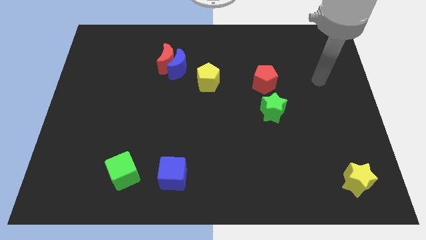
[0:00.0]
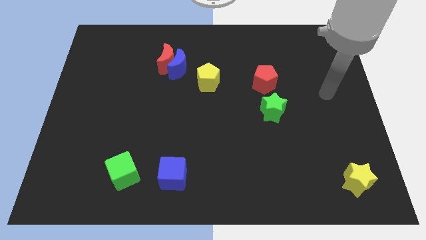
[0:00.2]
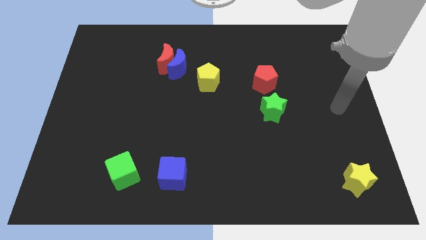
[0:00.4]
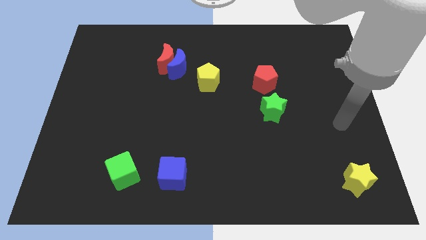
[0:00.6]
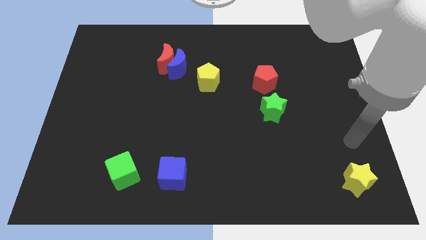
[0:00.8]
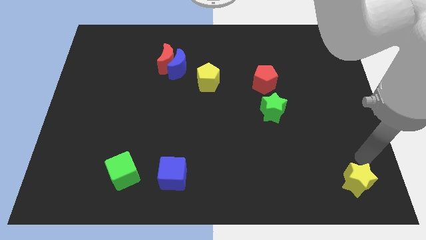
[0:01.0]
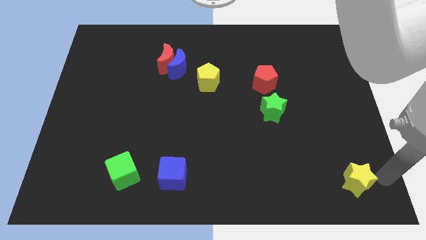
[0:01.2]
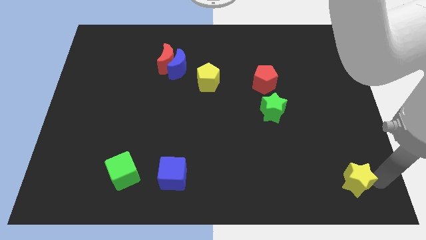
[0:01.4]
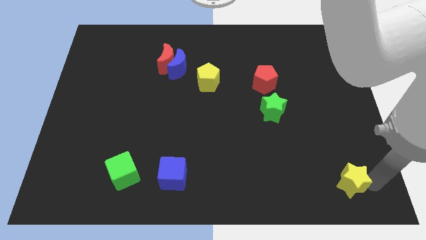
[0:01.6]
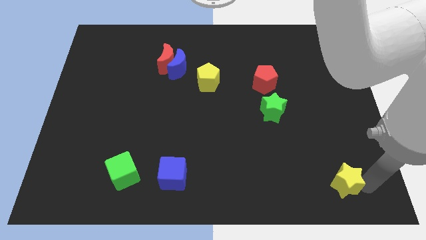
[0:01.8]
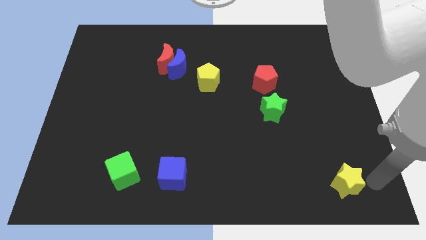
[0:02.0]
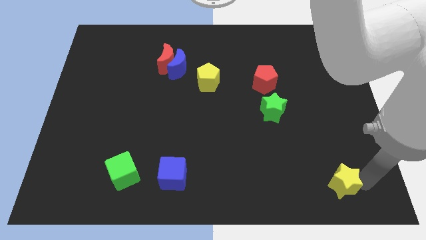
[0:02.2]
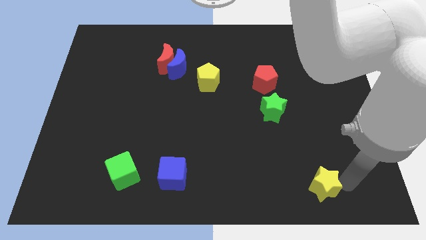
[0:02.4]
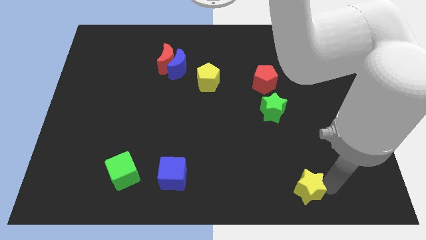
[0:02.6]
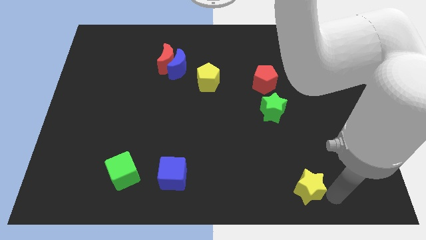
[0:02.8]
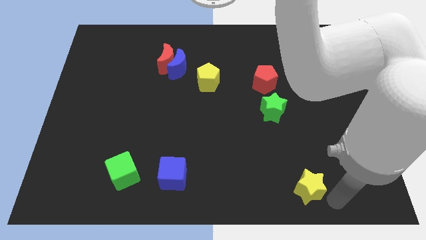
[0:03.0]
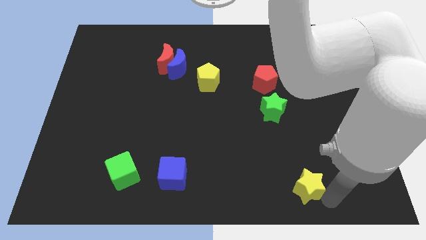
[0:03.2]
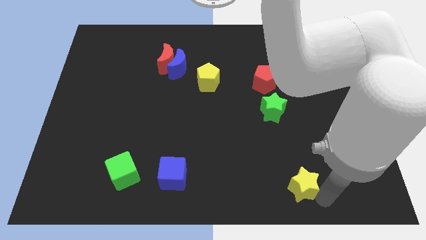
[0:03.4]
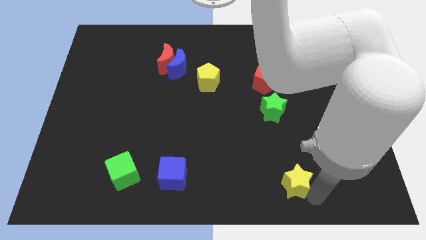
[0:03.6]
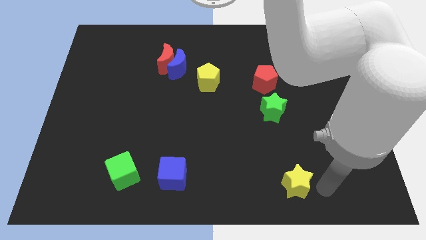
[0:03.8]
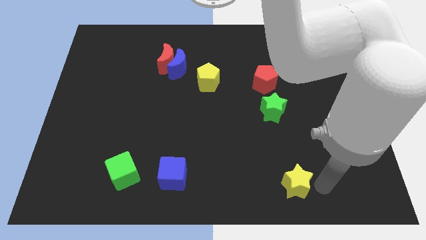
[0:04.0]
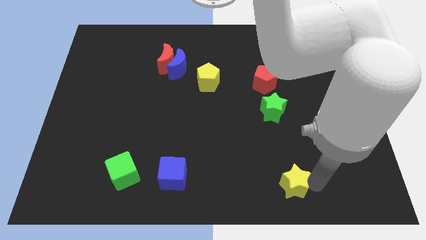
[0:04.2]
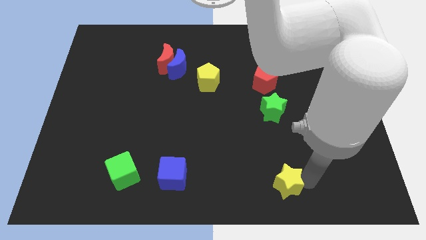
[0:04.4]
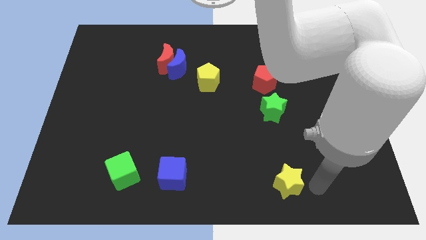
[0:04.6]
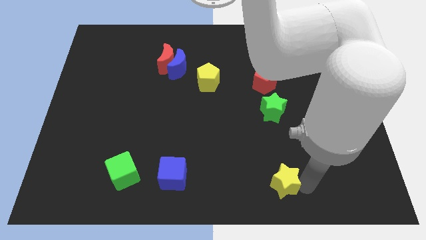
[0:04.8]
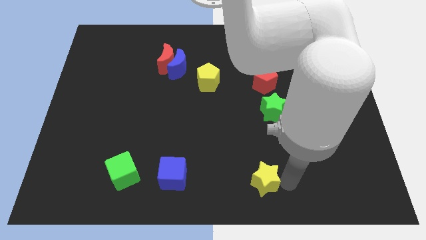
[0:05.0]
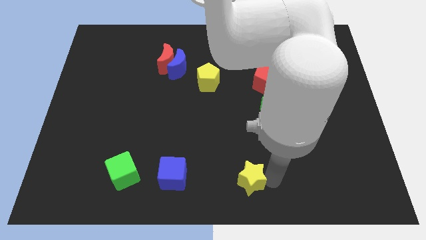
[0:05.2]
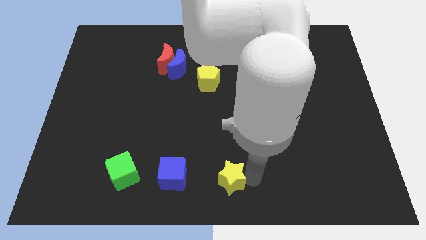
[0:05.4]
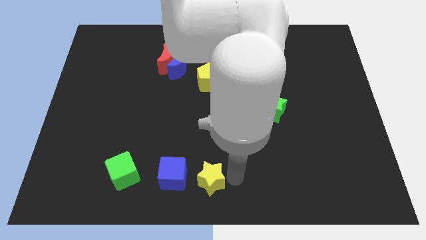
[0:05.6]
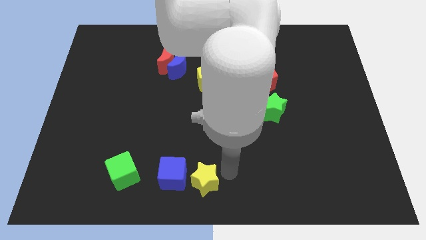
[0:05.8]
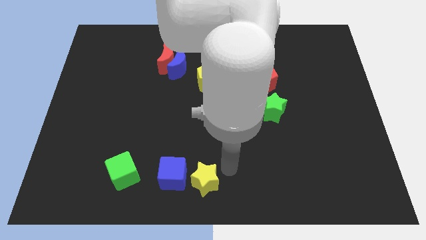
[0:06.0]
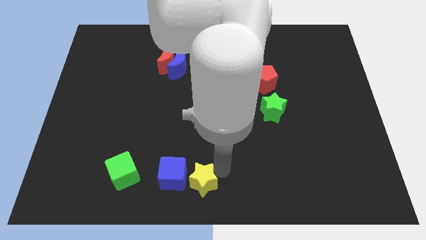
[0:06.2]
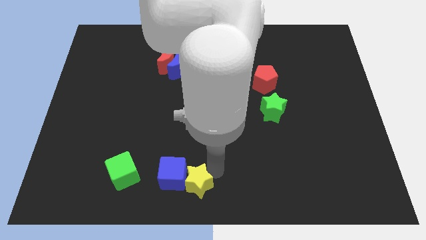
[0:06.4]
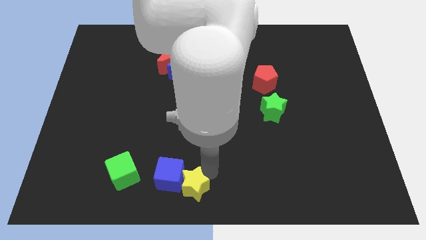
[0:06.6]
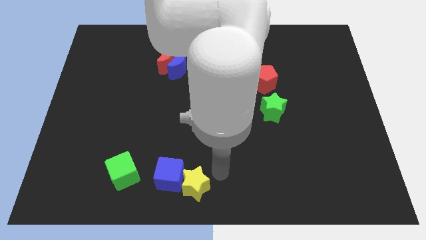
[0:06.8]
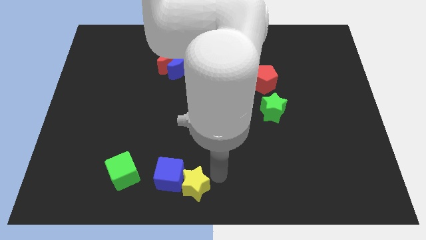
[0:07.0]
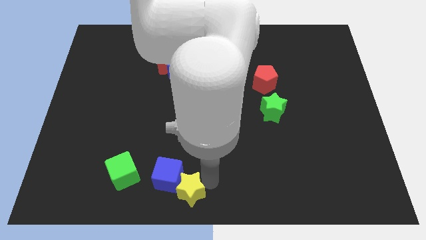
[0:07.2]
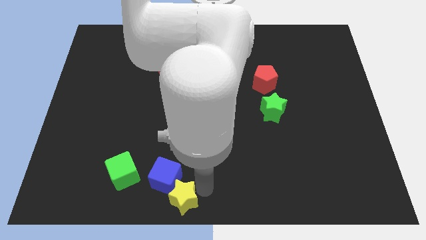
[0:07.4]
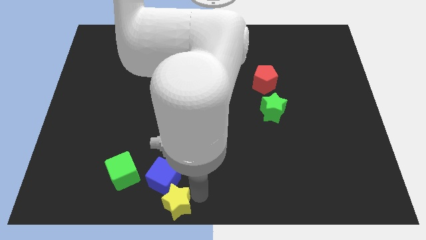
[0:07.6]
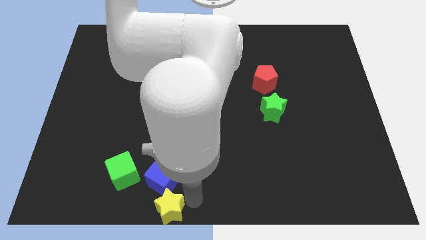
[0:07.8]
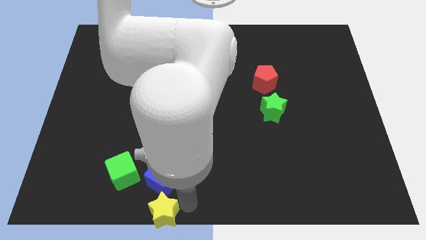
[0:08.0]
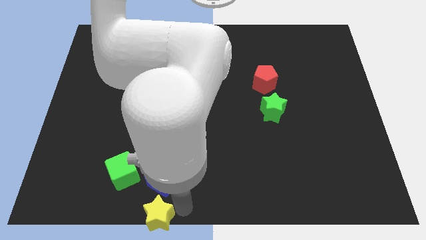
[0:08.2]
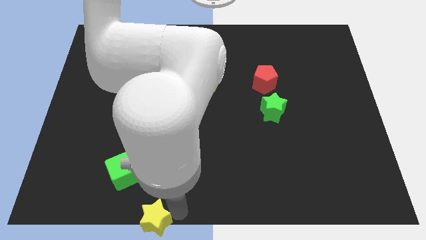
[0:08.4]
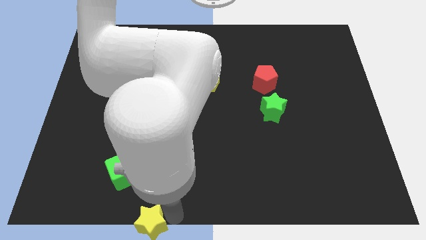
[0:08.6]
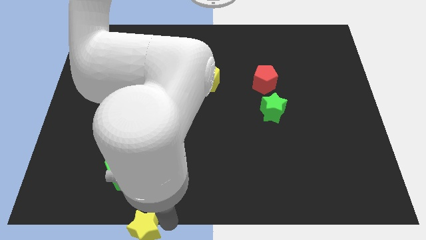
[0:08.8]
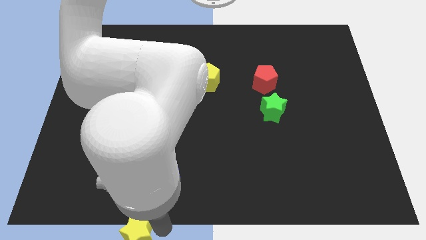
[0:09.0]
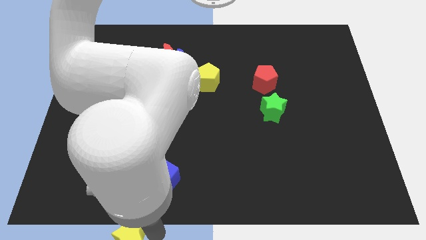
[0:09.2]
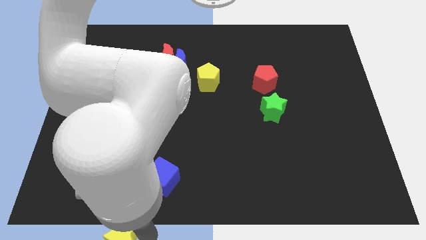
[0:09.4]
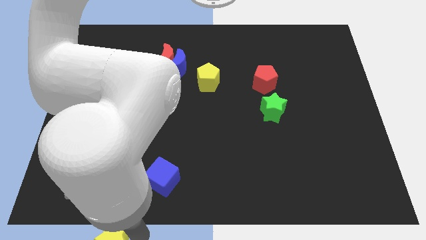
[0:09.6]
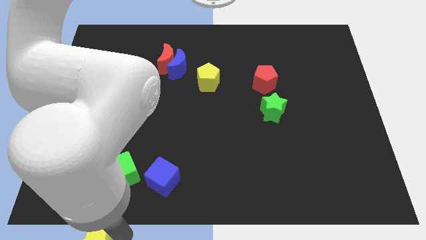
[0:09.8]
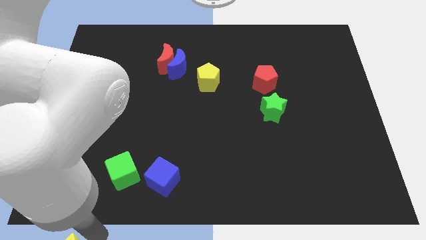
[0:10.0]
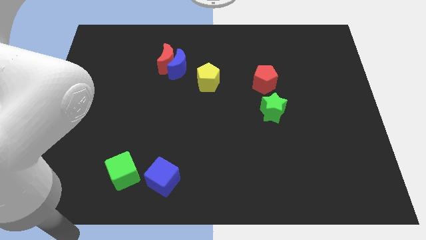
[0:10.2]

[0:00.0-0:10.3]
slide the yellow star to the lower left corner

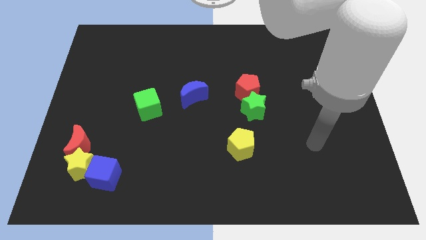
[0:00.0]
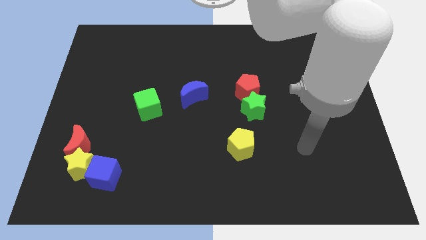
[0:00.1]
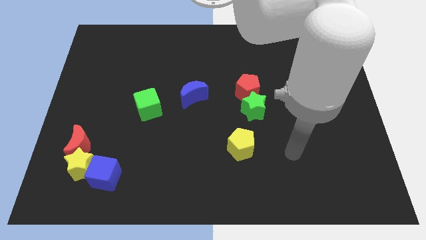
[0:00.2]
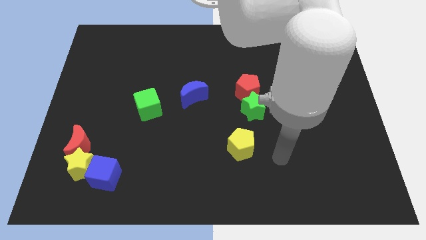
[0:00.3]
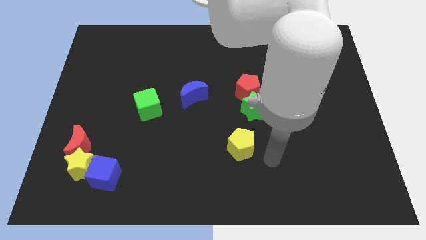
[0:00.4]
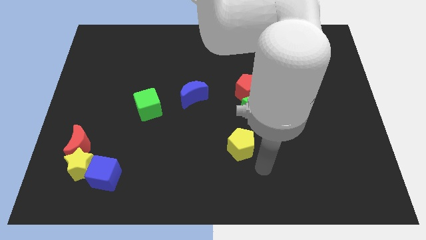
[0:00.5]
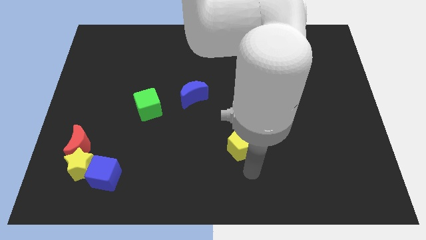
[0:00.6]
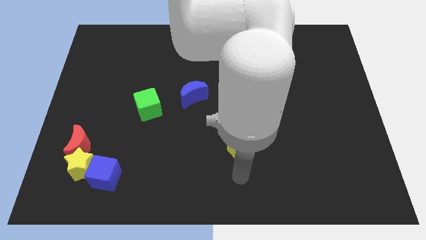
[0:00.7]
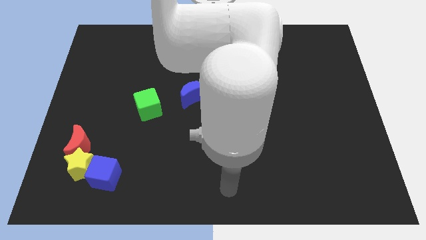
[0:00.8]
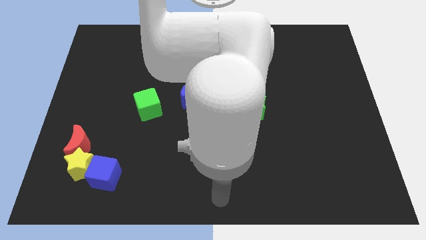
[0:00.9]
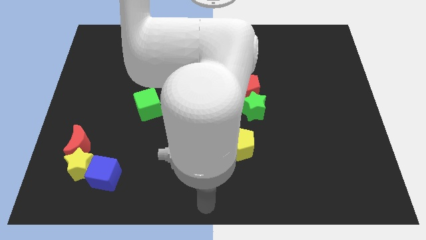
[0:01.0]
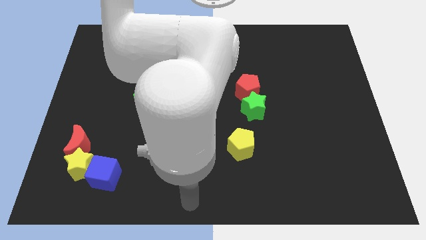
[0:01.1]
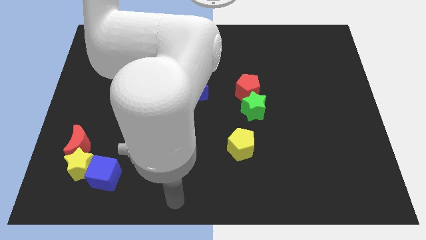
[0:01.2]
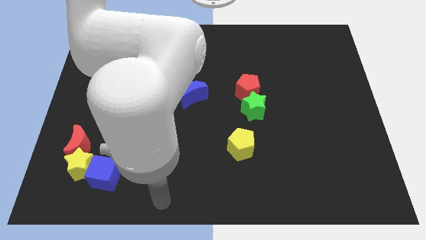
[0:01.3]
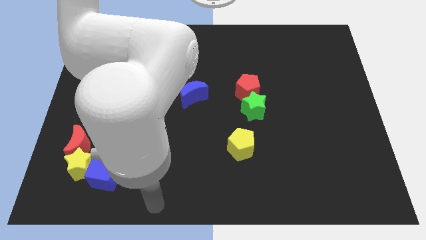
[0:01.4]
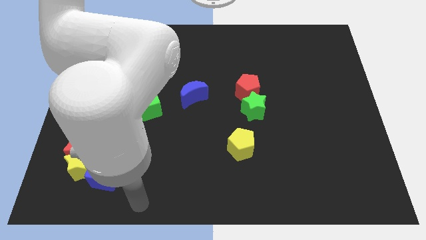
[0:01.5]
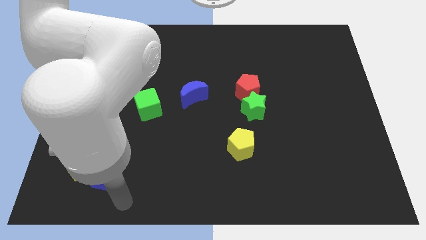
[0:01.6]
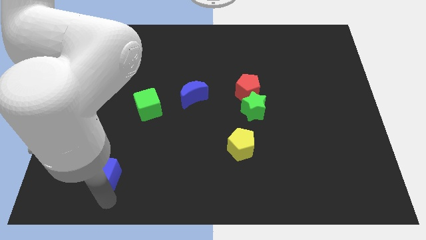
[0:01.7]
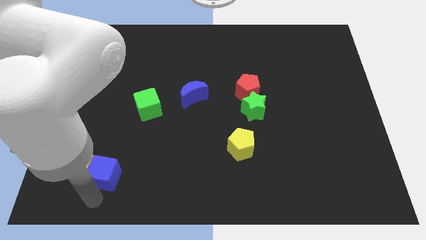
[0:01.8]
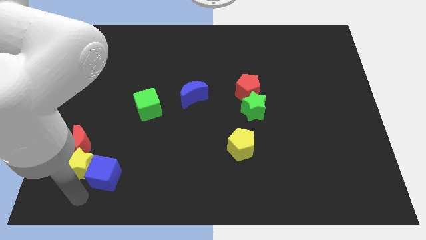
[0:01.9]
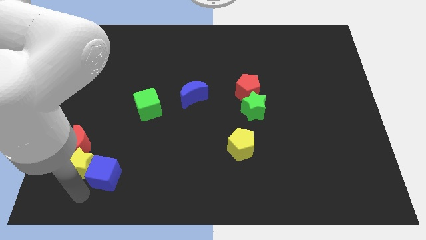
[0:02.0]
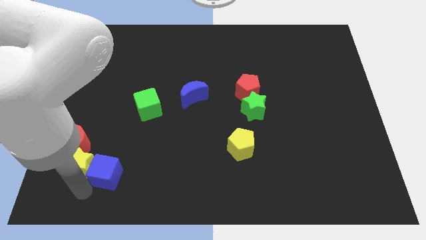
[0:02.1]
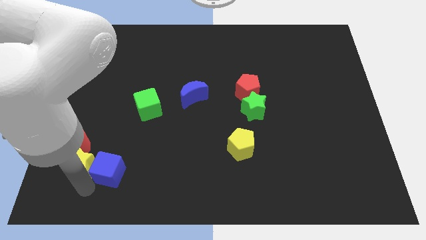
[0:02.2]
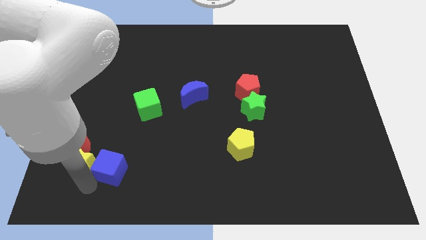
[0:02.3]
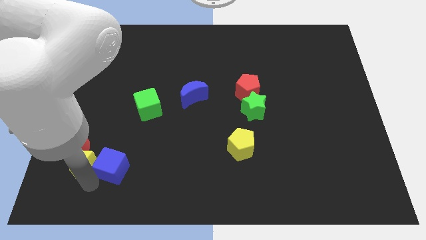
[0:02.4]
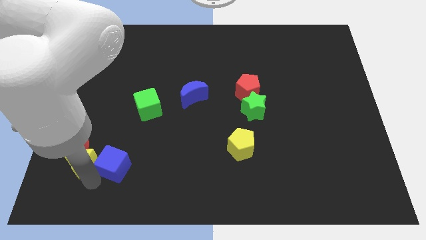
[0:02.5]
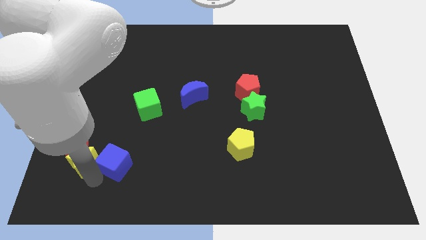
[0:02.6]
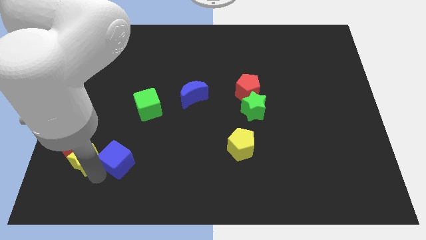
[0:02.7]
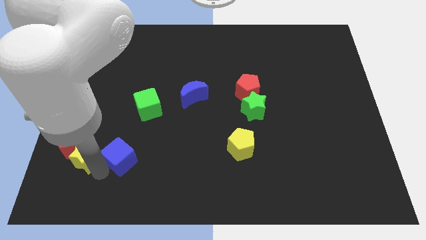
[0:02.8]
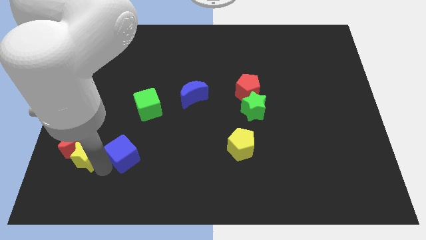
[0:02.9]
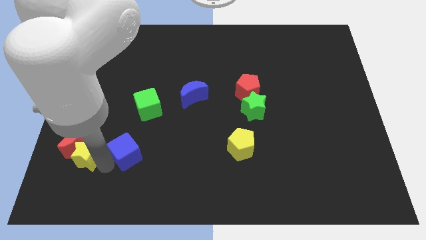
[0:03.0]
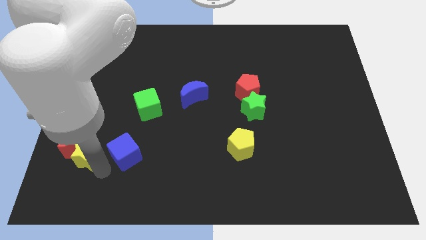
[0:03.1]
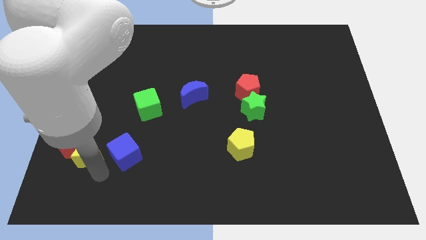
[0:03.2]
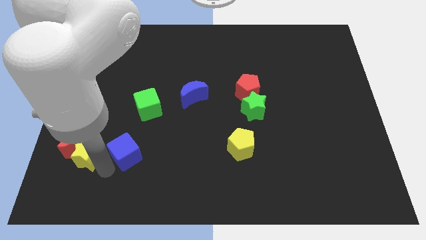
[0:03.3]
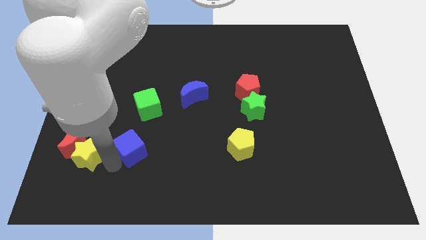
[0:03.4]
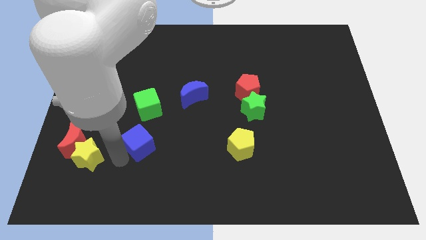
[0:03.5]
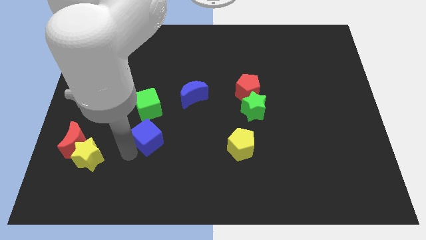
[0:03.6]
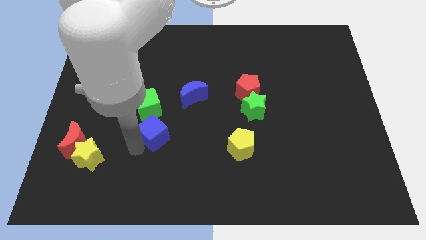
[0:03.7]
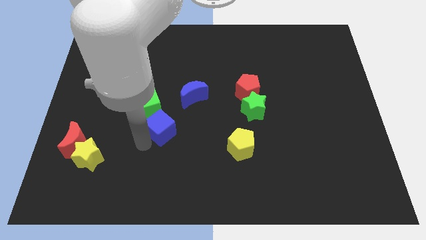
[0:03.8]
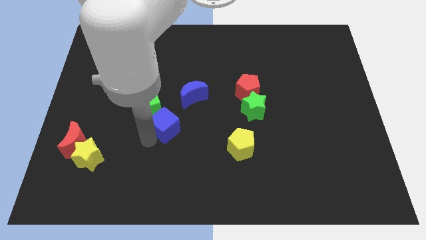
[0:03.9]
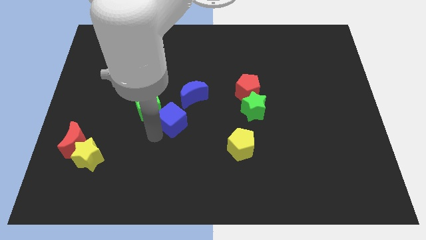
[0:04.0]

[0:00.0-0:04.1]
push the blue cube to the center of the board
